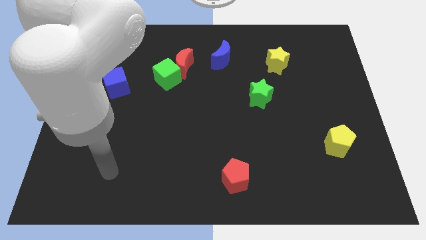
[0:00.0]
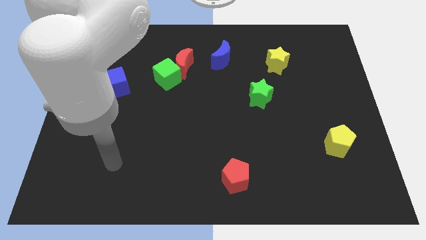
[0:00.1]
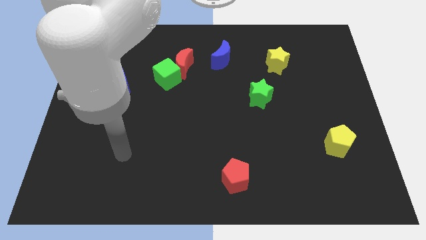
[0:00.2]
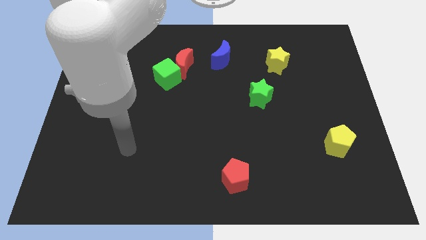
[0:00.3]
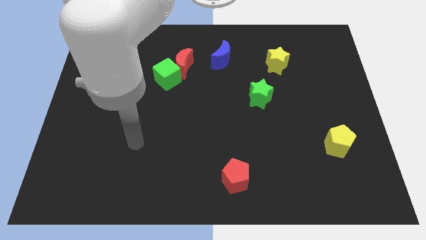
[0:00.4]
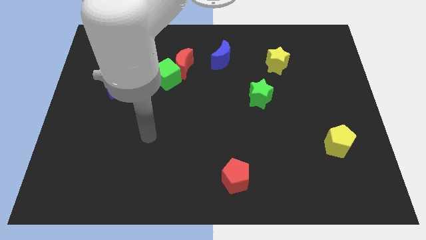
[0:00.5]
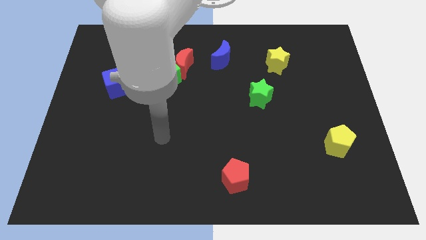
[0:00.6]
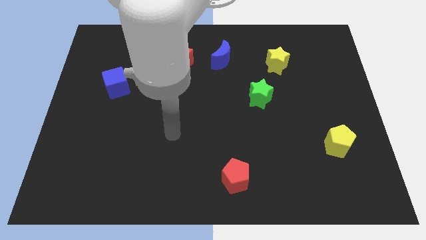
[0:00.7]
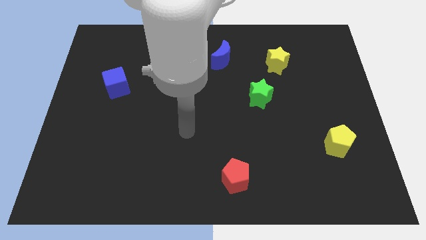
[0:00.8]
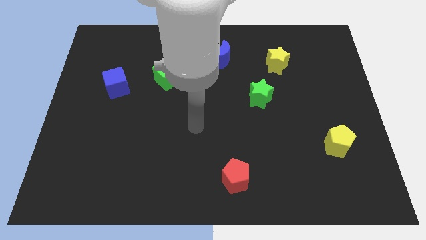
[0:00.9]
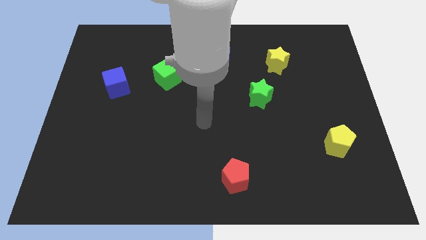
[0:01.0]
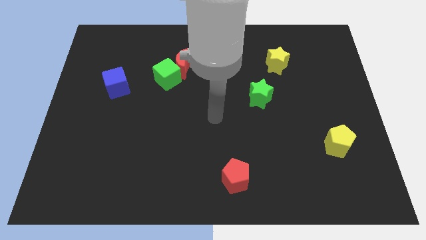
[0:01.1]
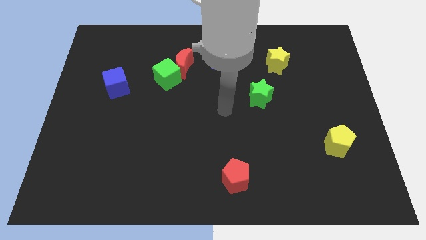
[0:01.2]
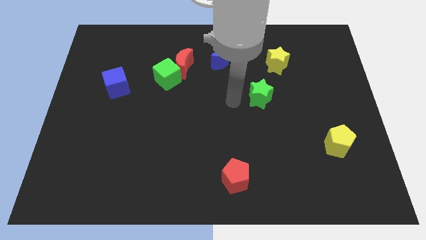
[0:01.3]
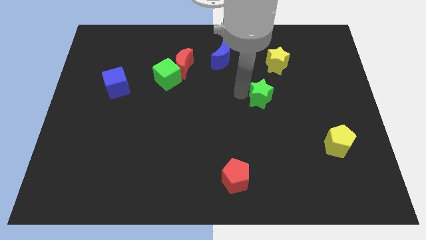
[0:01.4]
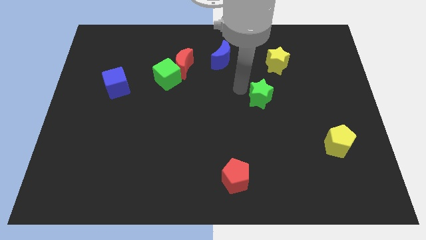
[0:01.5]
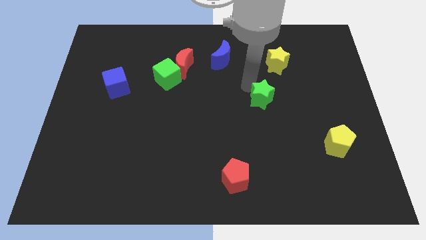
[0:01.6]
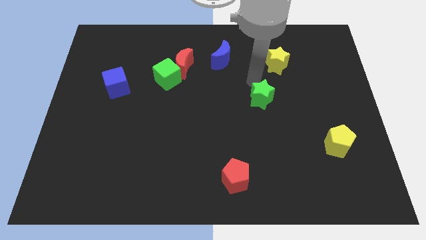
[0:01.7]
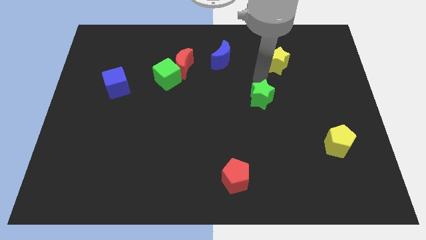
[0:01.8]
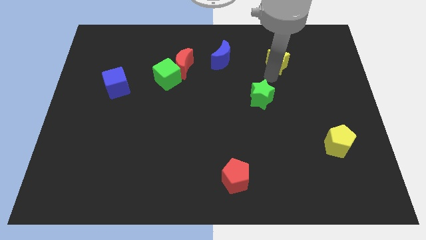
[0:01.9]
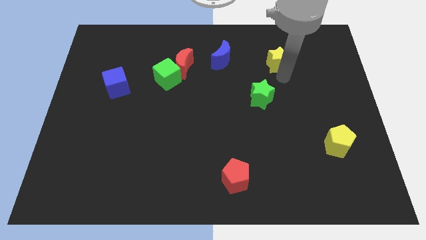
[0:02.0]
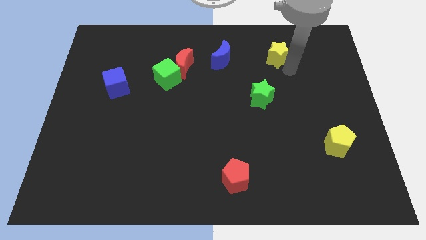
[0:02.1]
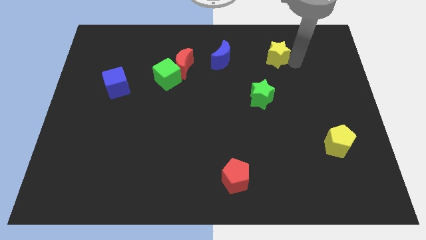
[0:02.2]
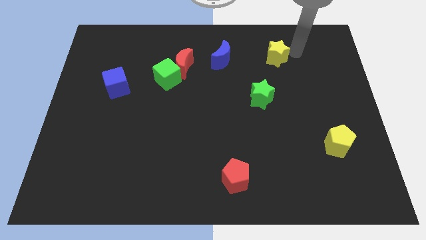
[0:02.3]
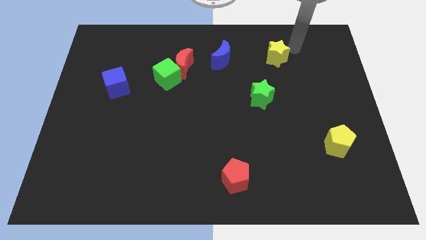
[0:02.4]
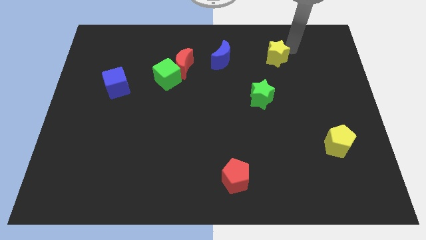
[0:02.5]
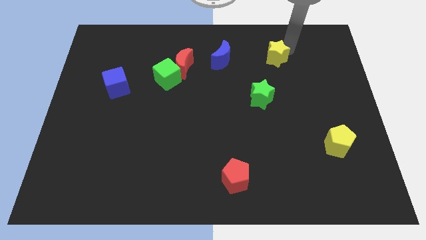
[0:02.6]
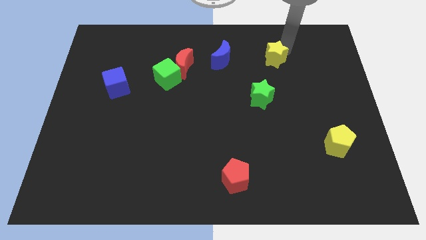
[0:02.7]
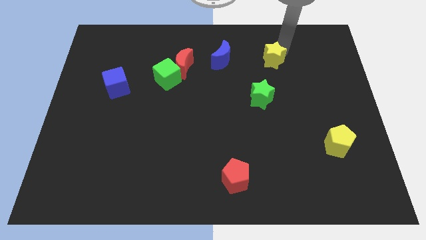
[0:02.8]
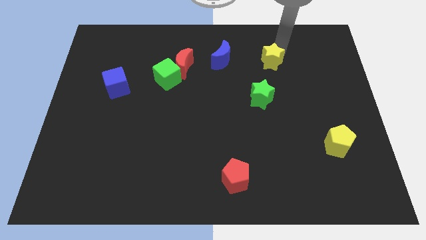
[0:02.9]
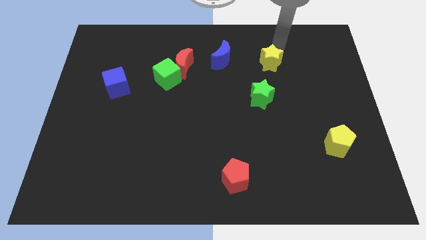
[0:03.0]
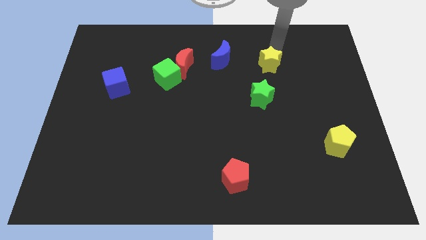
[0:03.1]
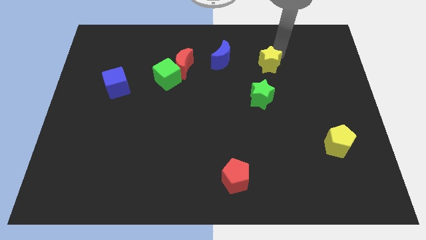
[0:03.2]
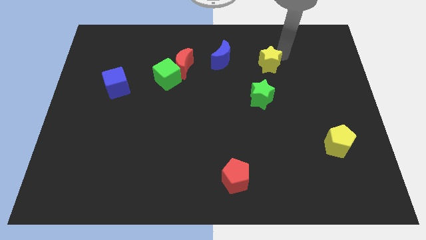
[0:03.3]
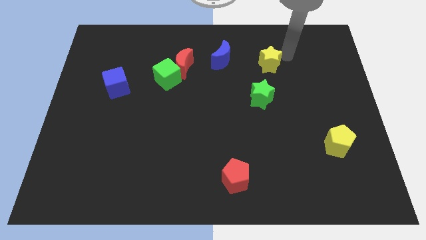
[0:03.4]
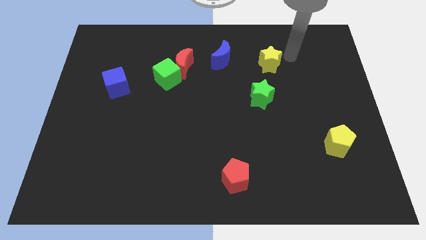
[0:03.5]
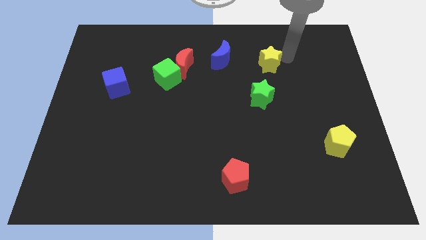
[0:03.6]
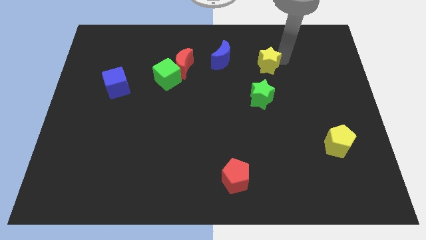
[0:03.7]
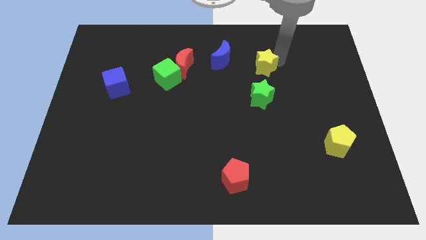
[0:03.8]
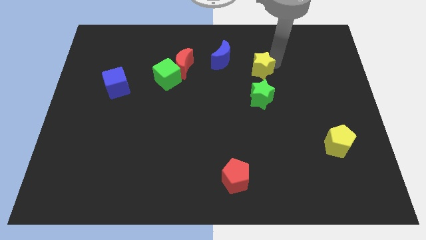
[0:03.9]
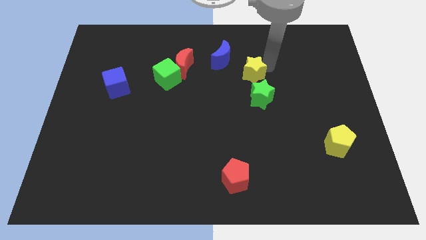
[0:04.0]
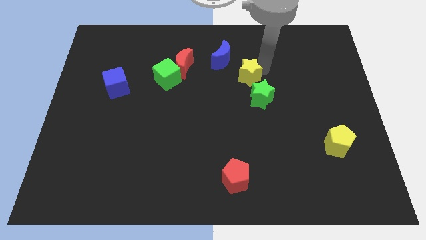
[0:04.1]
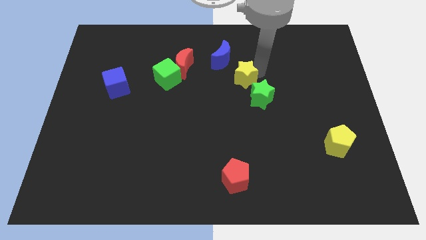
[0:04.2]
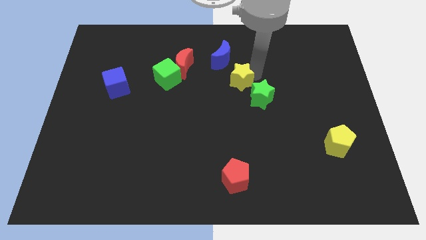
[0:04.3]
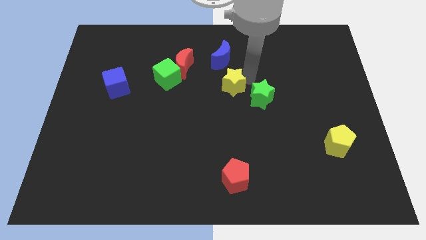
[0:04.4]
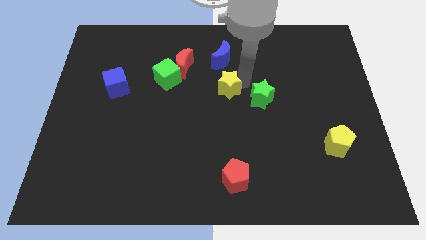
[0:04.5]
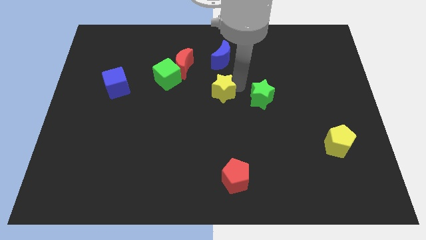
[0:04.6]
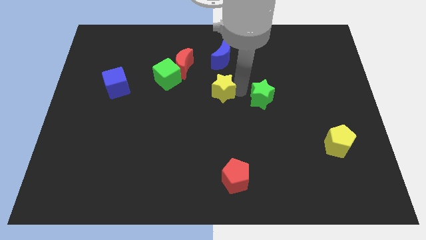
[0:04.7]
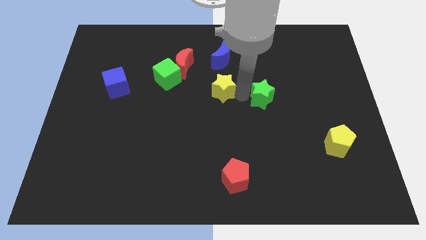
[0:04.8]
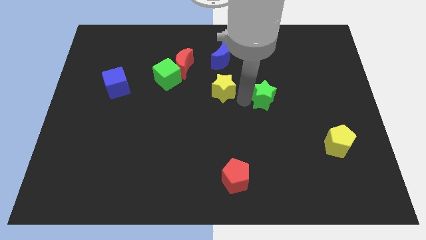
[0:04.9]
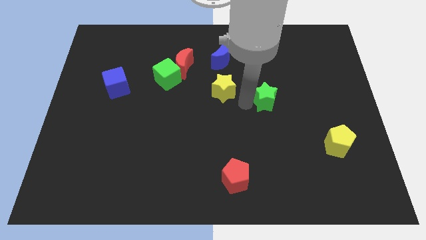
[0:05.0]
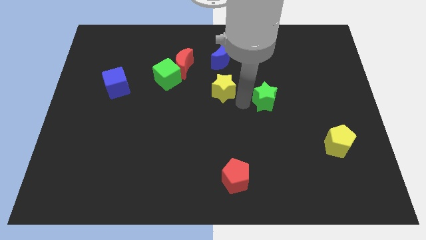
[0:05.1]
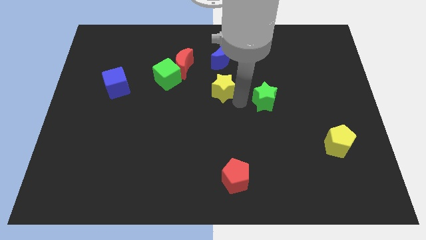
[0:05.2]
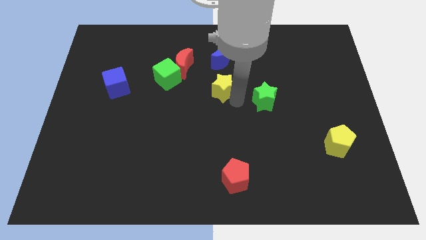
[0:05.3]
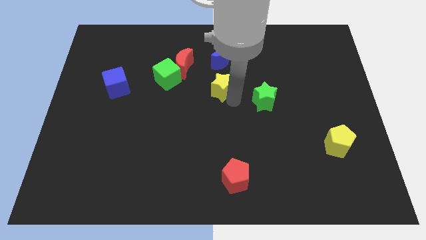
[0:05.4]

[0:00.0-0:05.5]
move the yellow star to the bottom right side of the red moon

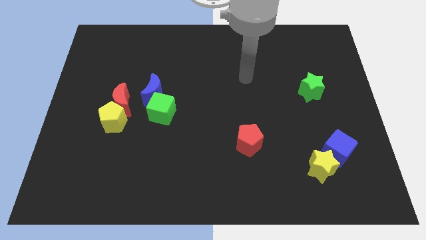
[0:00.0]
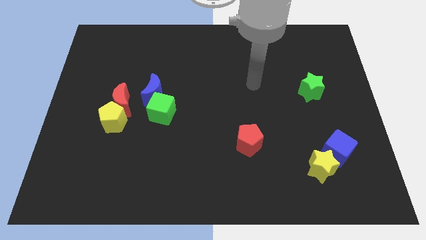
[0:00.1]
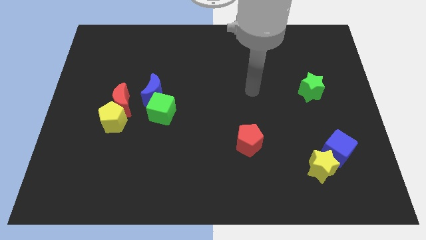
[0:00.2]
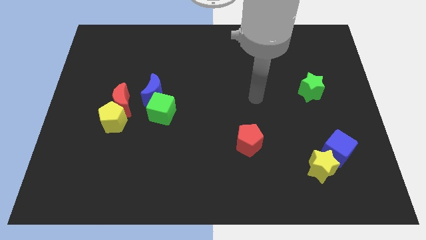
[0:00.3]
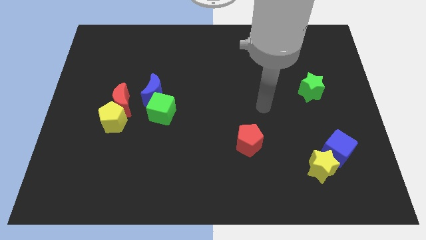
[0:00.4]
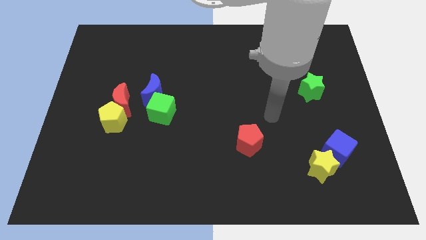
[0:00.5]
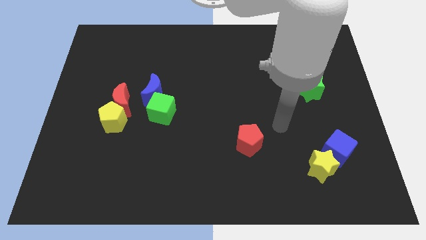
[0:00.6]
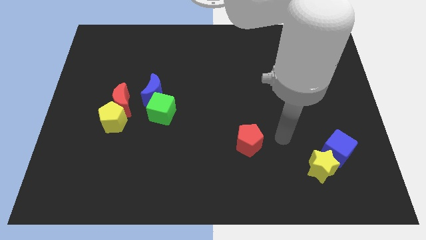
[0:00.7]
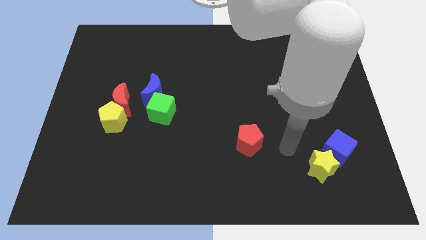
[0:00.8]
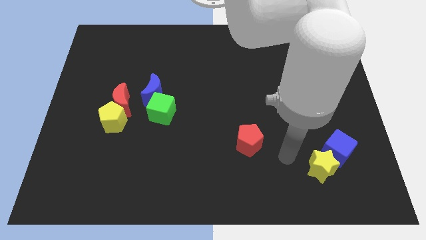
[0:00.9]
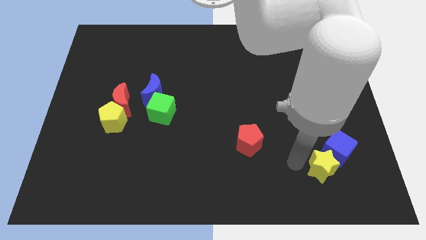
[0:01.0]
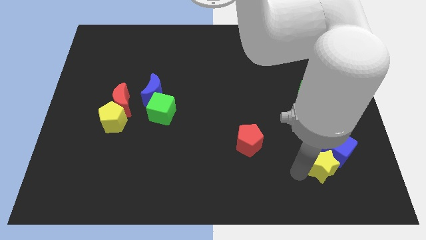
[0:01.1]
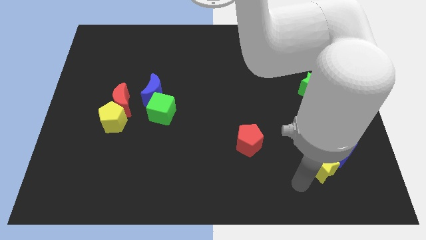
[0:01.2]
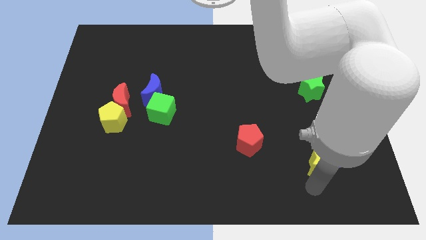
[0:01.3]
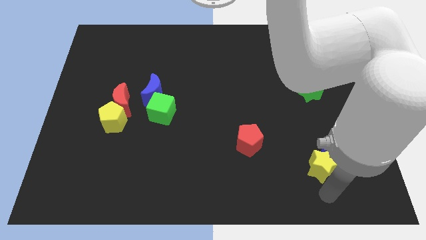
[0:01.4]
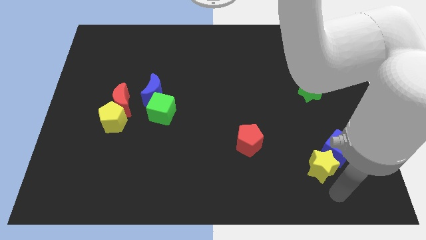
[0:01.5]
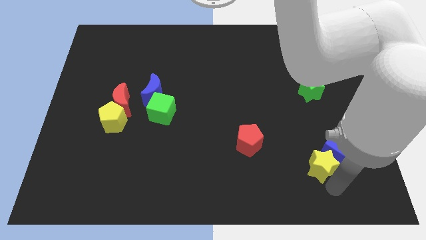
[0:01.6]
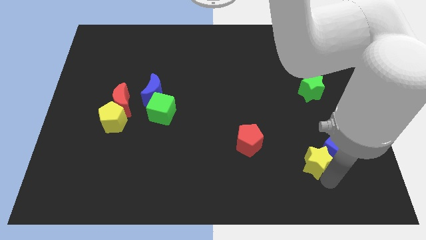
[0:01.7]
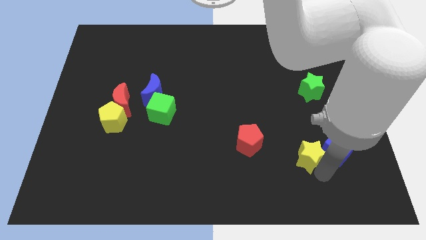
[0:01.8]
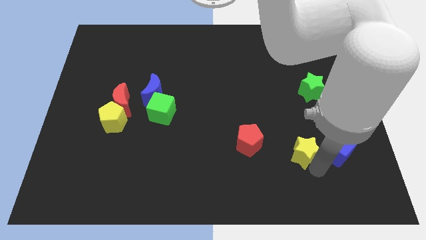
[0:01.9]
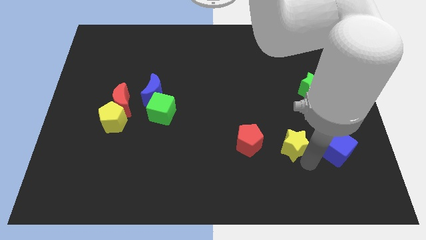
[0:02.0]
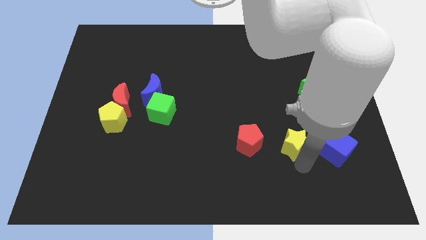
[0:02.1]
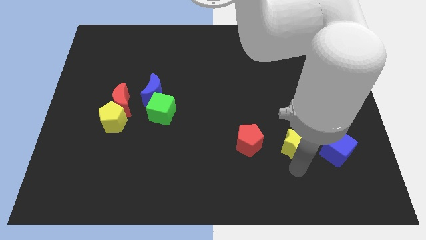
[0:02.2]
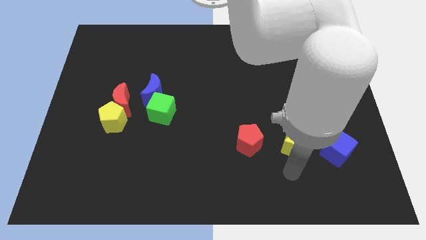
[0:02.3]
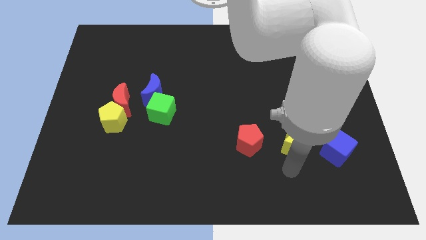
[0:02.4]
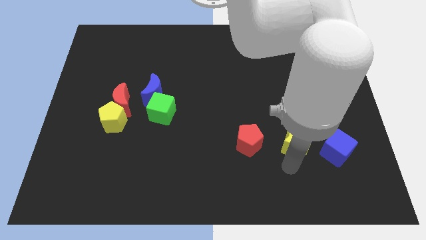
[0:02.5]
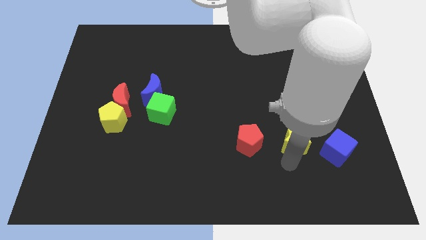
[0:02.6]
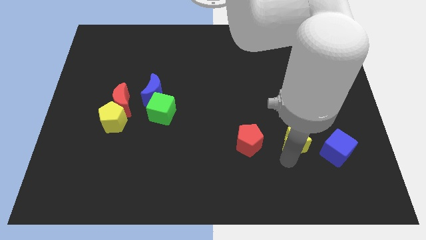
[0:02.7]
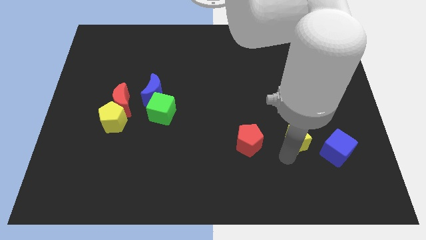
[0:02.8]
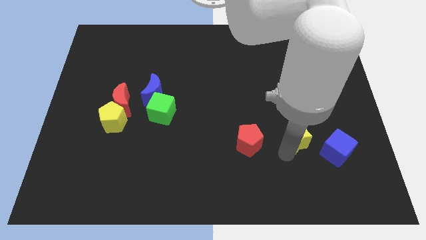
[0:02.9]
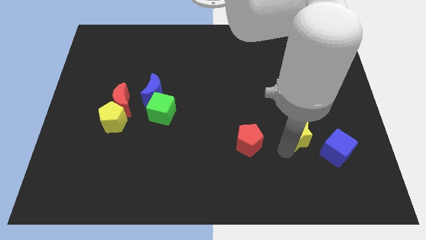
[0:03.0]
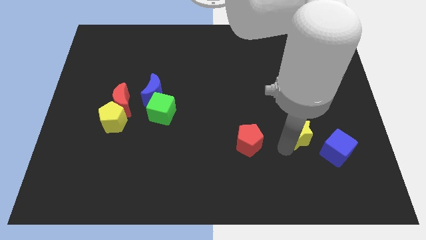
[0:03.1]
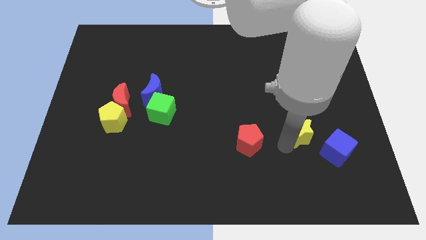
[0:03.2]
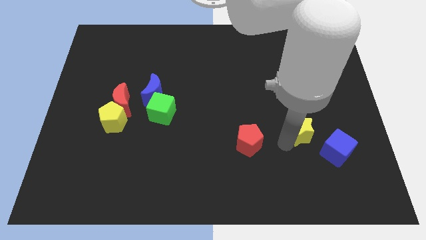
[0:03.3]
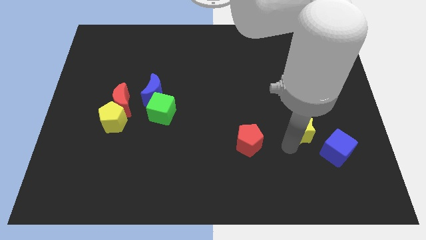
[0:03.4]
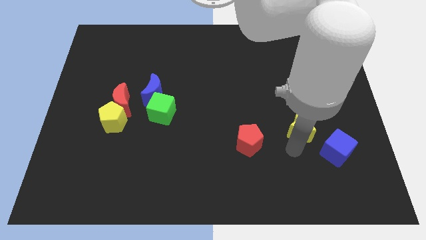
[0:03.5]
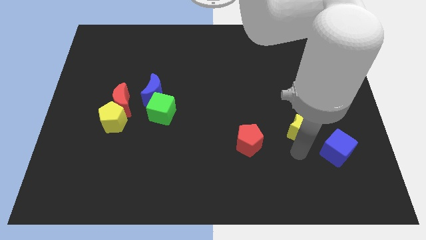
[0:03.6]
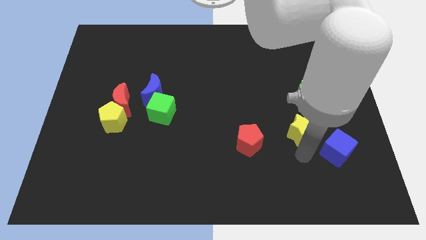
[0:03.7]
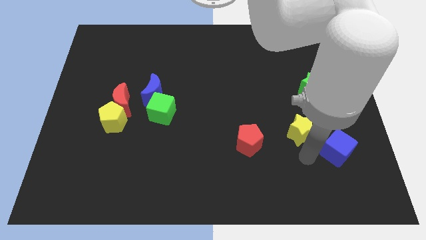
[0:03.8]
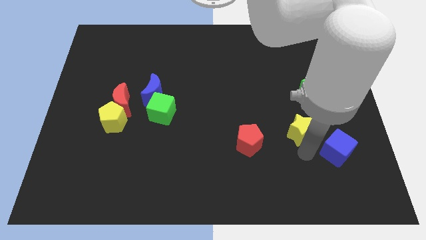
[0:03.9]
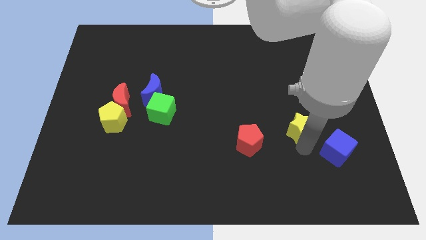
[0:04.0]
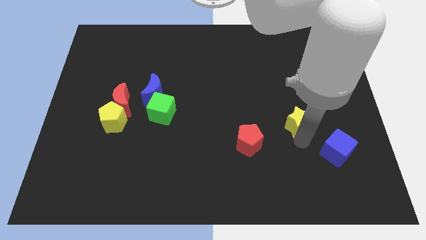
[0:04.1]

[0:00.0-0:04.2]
move the yellow star diagonally down and to the left of the green star
